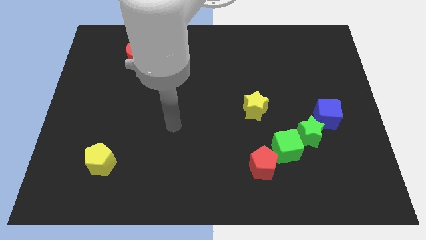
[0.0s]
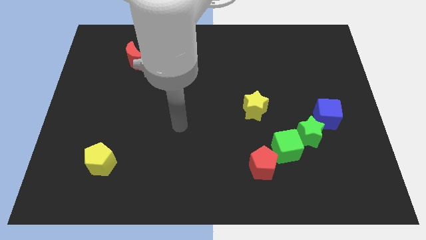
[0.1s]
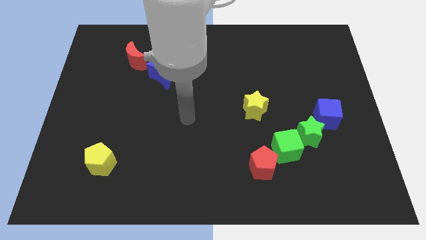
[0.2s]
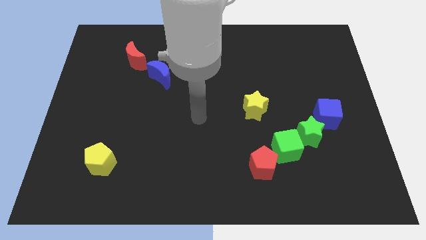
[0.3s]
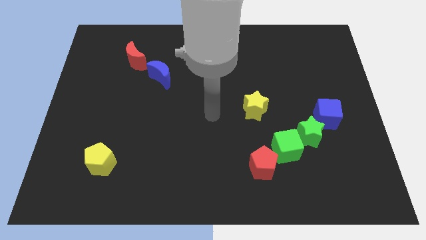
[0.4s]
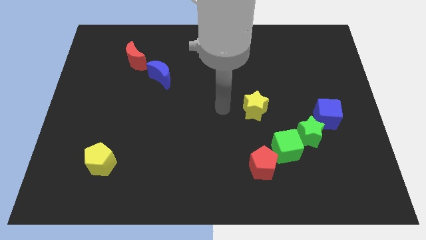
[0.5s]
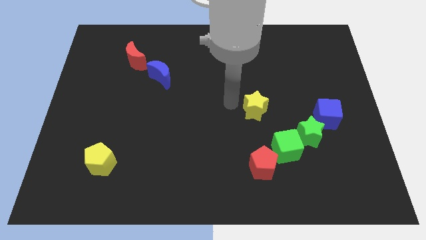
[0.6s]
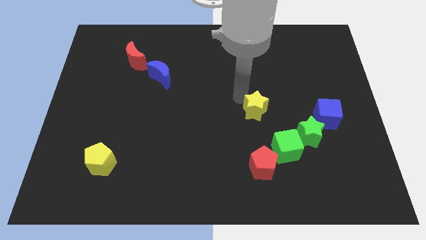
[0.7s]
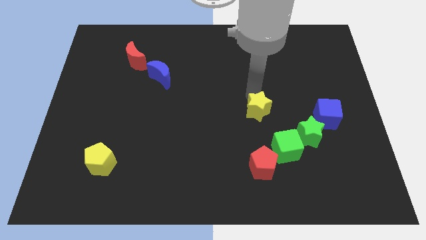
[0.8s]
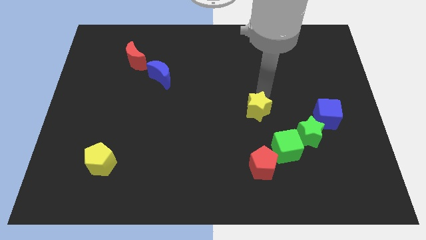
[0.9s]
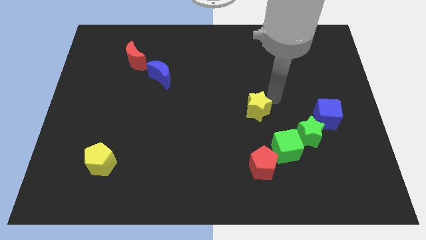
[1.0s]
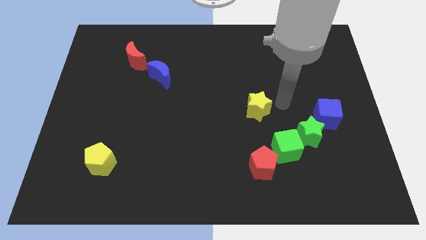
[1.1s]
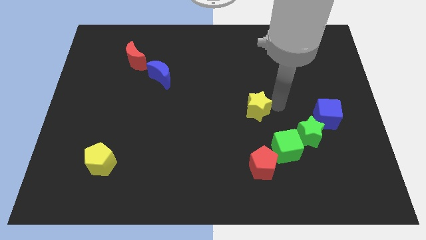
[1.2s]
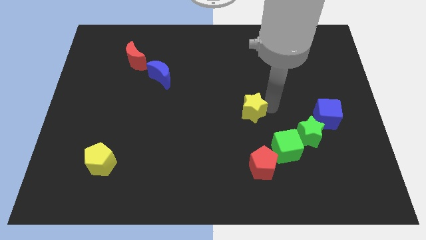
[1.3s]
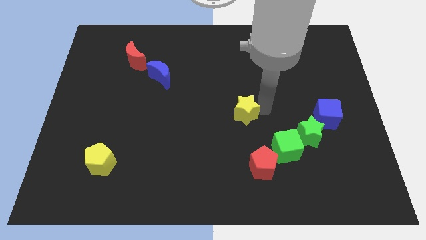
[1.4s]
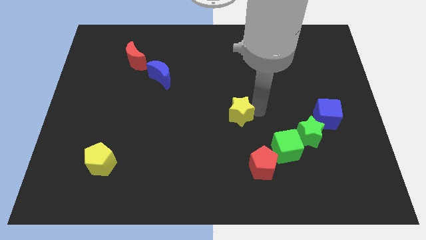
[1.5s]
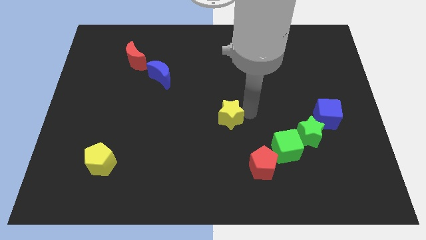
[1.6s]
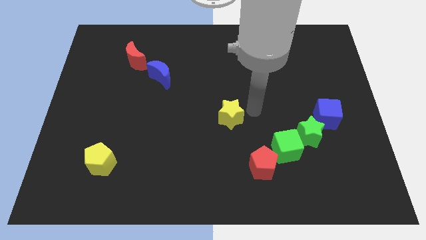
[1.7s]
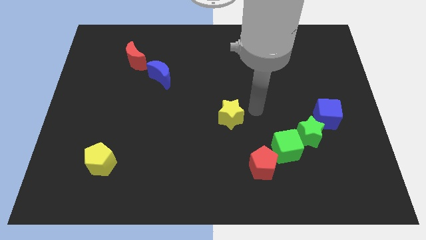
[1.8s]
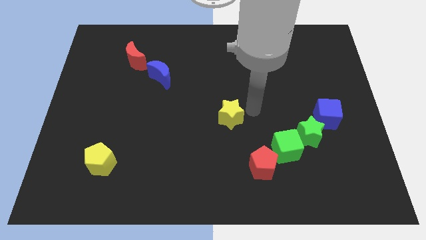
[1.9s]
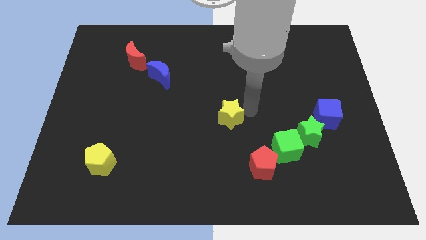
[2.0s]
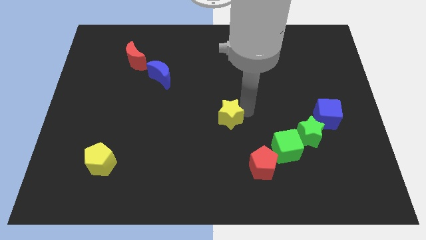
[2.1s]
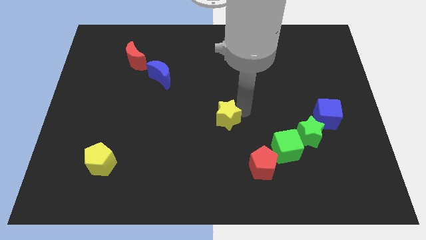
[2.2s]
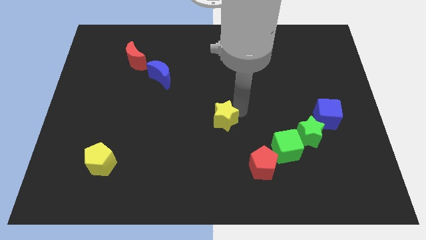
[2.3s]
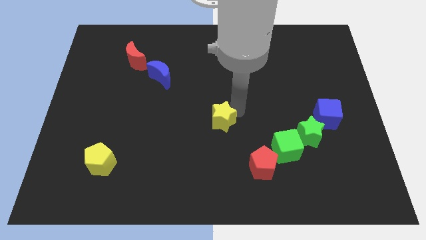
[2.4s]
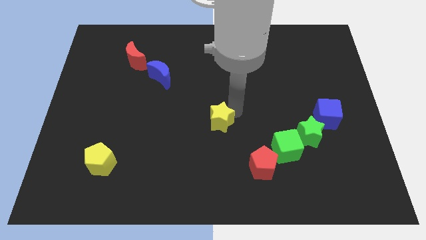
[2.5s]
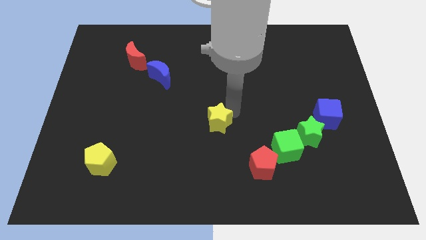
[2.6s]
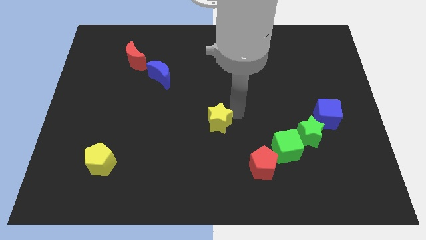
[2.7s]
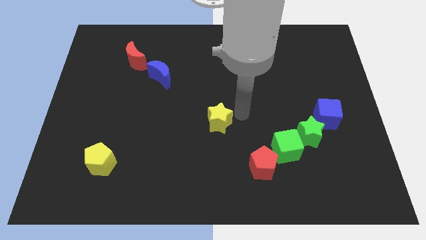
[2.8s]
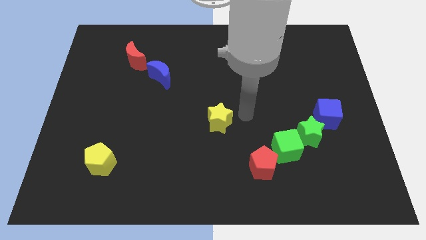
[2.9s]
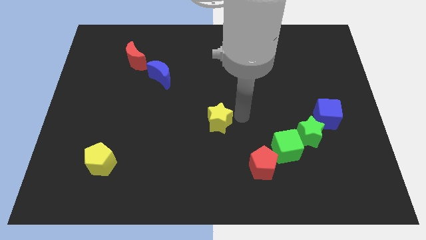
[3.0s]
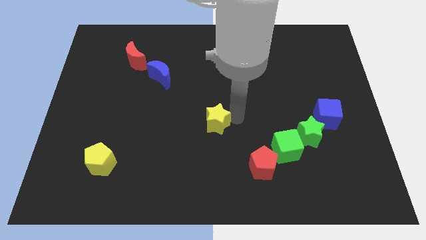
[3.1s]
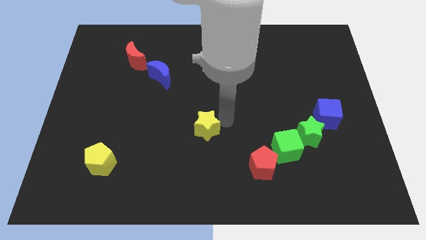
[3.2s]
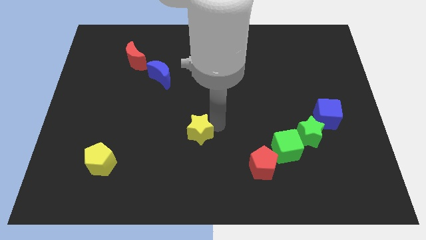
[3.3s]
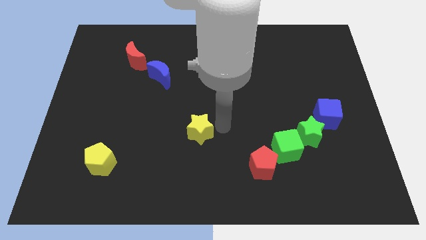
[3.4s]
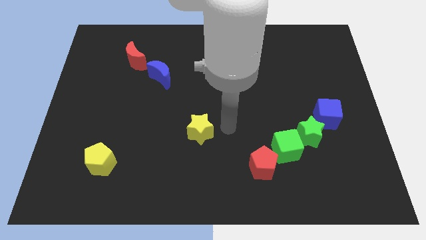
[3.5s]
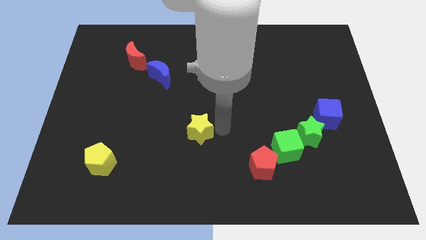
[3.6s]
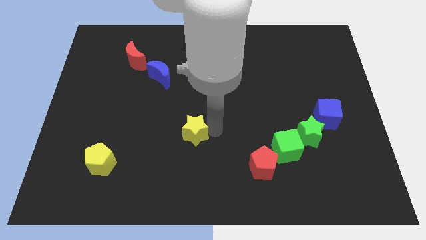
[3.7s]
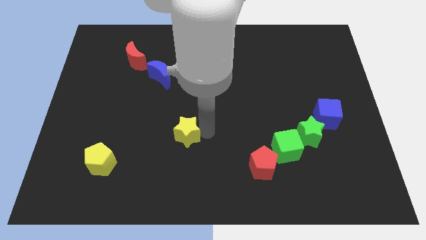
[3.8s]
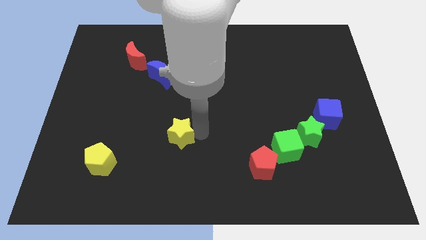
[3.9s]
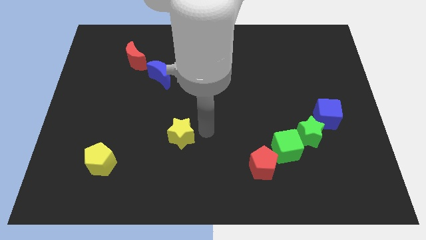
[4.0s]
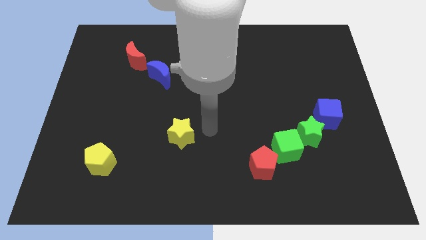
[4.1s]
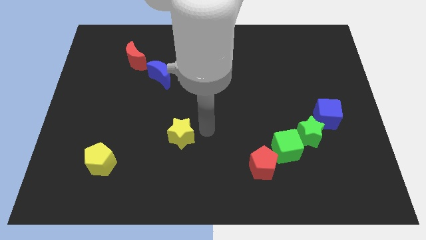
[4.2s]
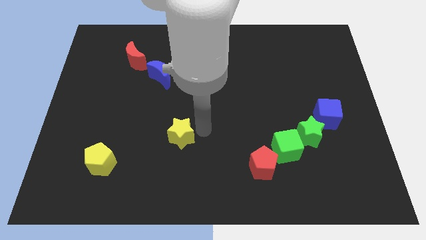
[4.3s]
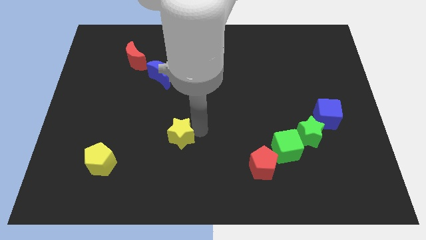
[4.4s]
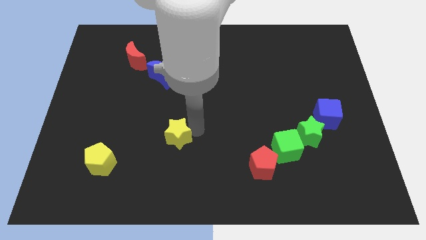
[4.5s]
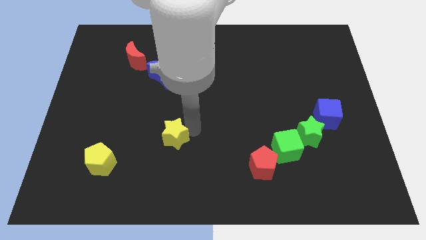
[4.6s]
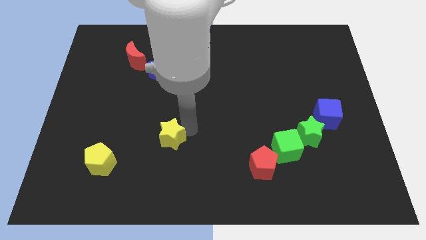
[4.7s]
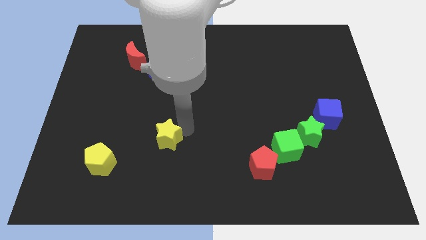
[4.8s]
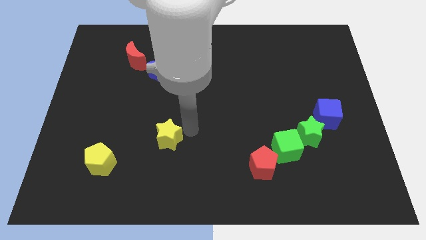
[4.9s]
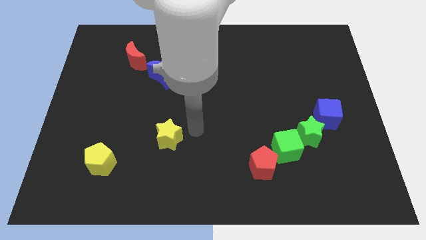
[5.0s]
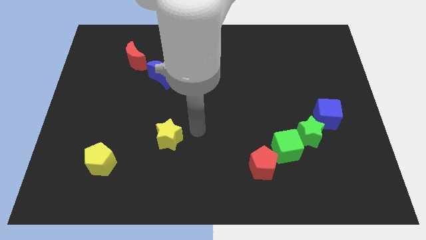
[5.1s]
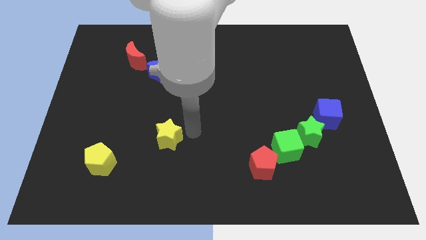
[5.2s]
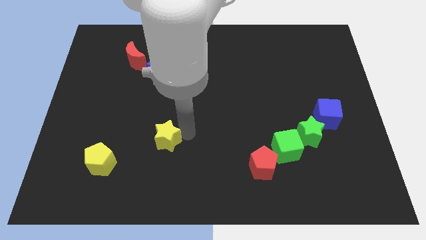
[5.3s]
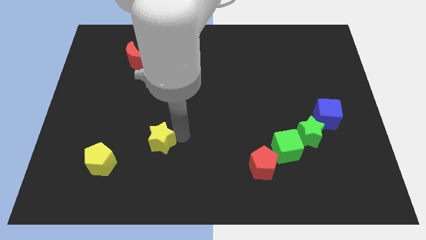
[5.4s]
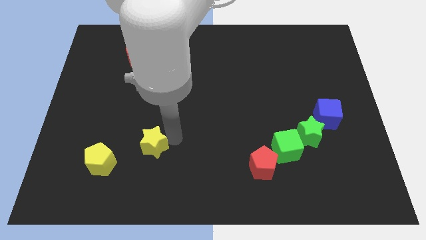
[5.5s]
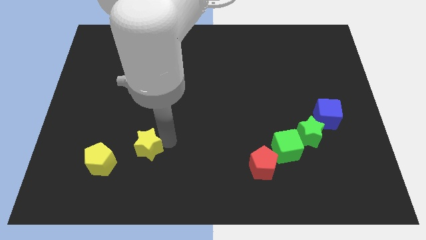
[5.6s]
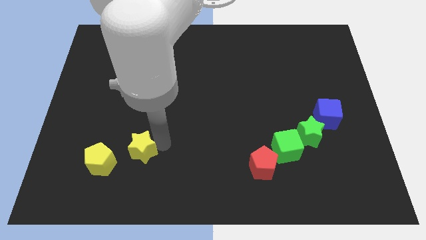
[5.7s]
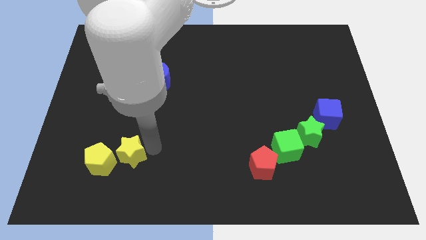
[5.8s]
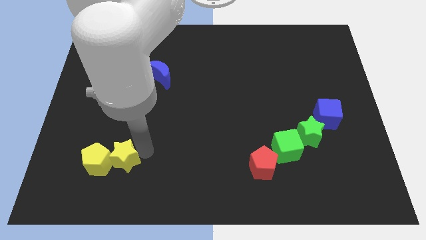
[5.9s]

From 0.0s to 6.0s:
slide the yellow star towards the yellow pentagon

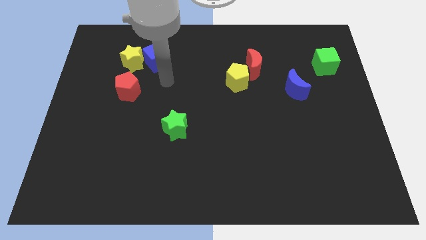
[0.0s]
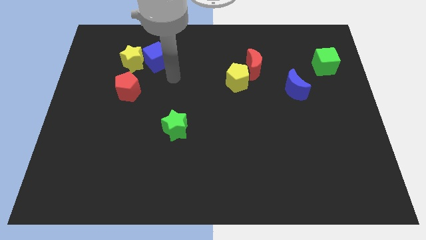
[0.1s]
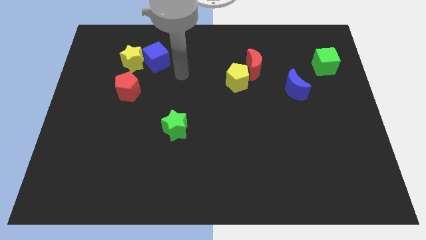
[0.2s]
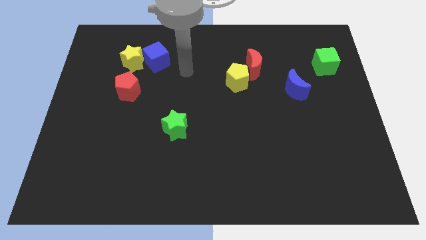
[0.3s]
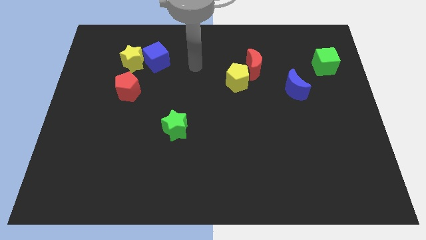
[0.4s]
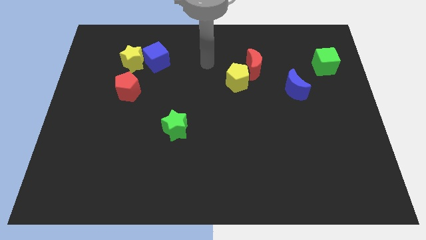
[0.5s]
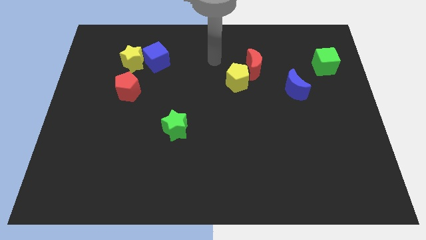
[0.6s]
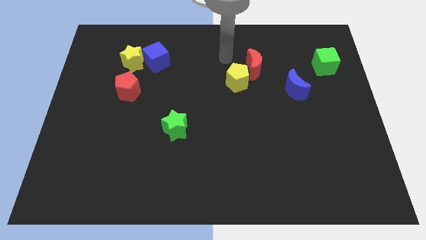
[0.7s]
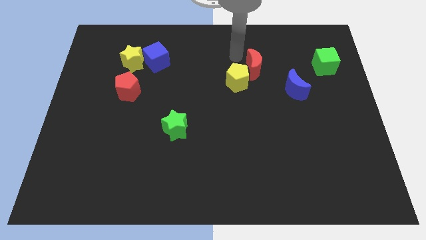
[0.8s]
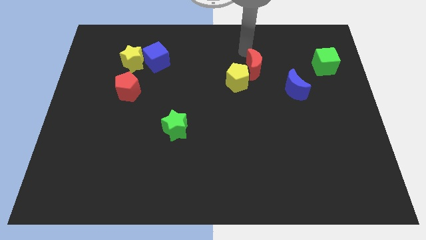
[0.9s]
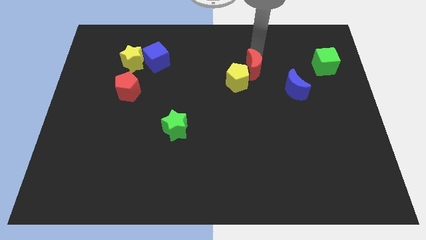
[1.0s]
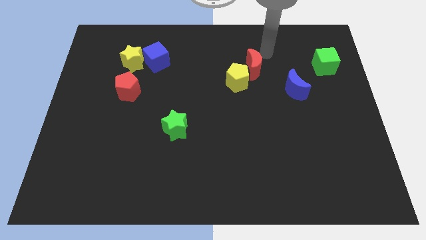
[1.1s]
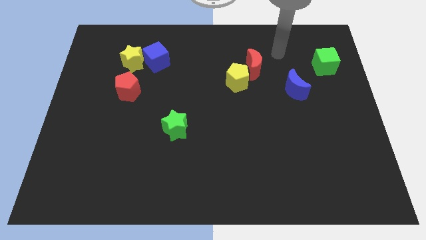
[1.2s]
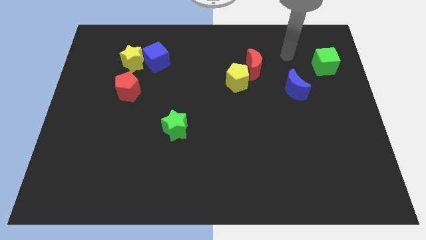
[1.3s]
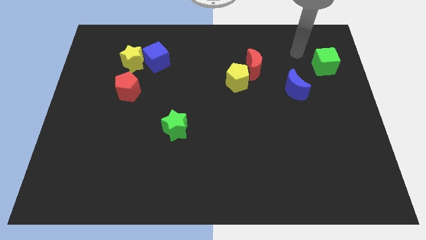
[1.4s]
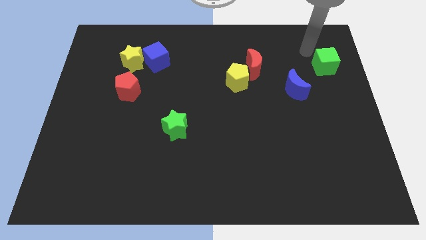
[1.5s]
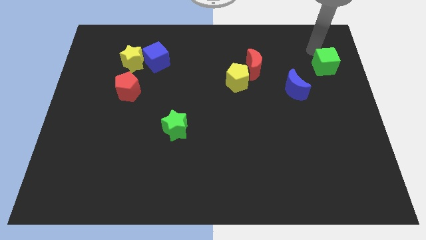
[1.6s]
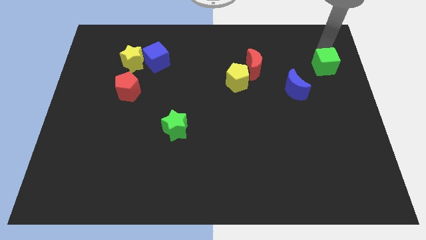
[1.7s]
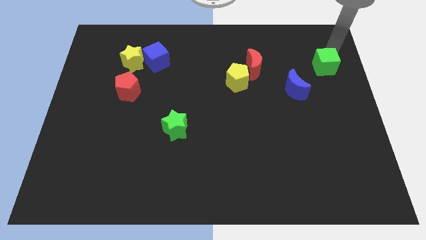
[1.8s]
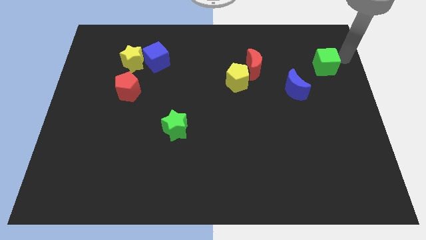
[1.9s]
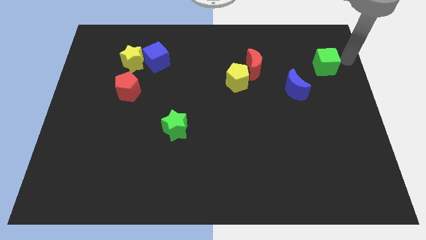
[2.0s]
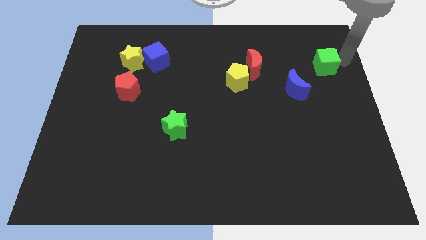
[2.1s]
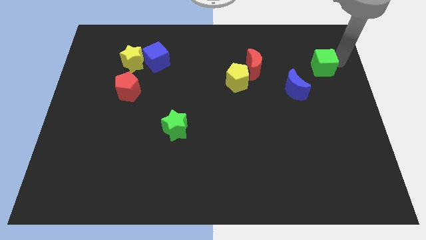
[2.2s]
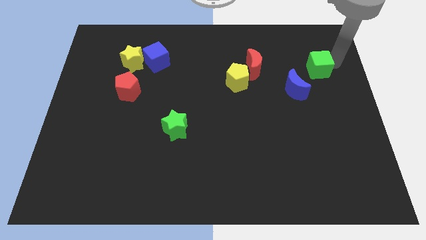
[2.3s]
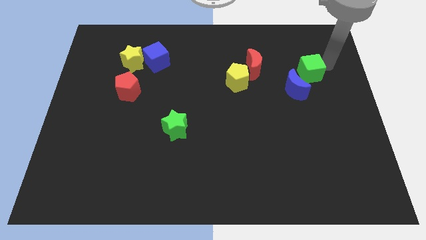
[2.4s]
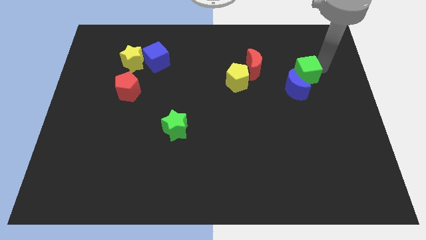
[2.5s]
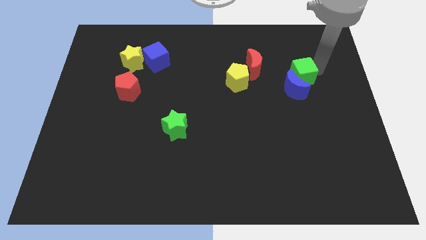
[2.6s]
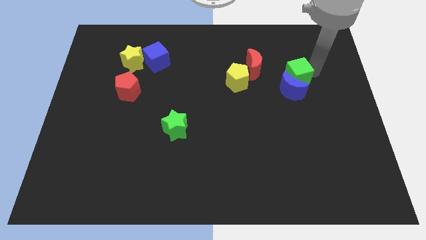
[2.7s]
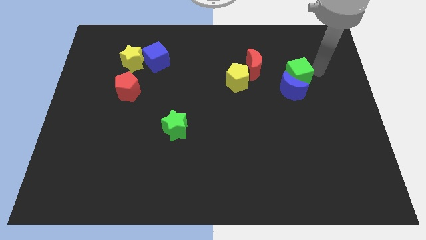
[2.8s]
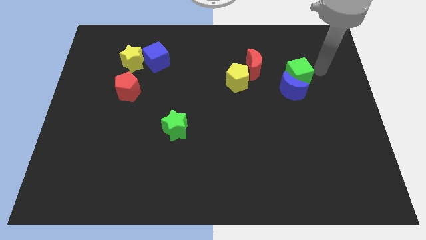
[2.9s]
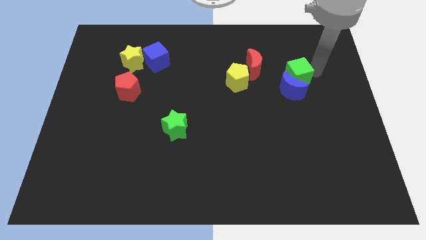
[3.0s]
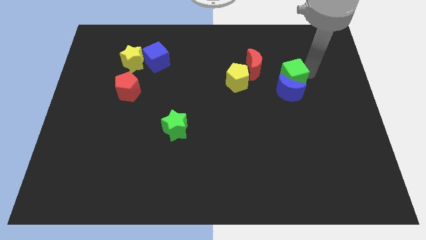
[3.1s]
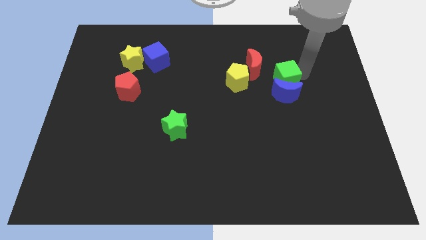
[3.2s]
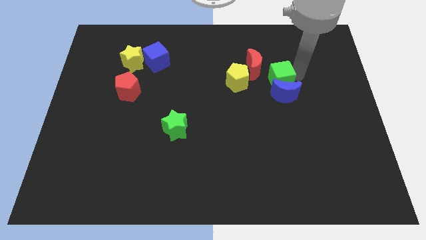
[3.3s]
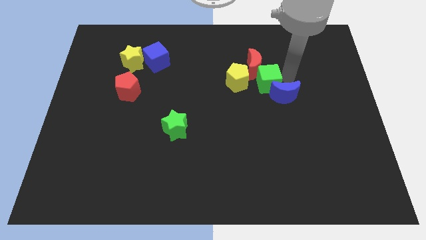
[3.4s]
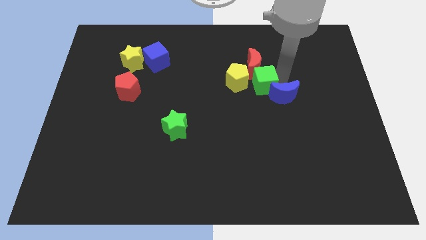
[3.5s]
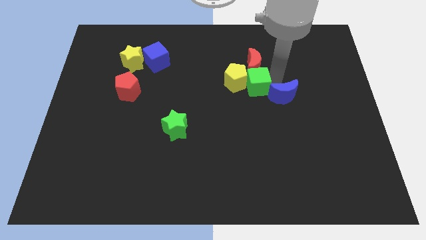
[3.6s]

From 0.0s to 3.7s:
push the green cube towards the yellow pentagon
